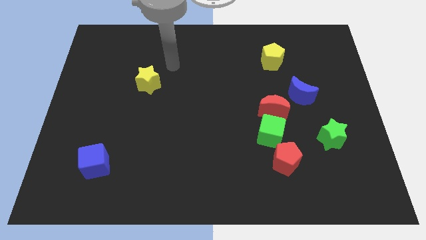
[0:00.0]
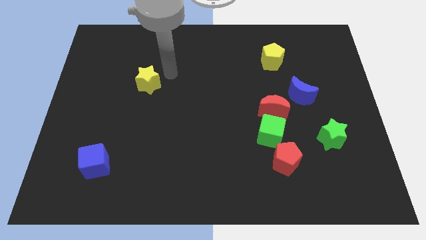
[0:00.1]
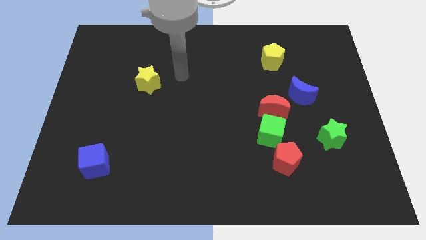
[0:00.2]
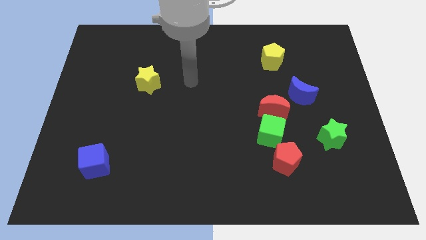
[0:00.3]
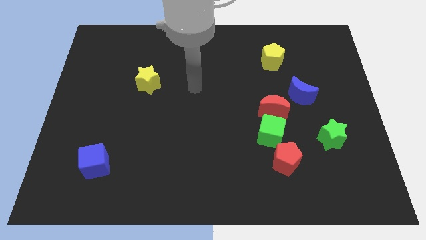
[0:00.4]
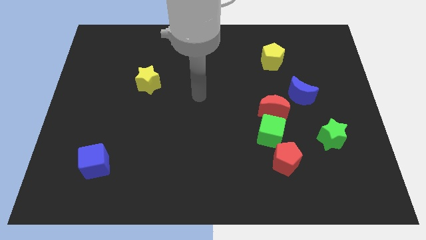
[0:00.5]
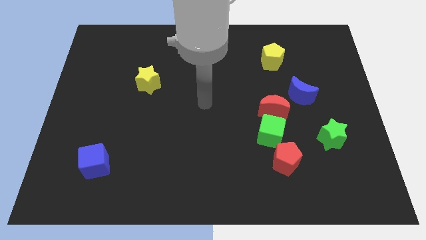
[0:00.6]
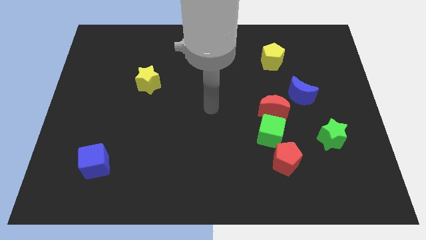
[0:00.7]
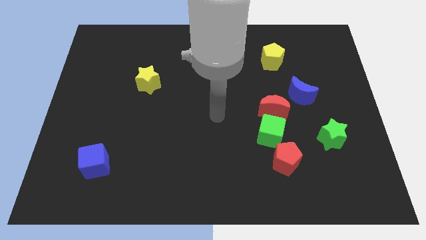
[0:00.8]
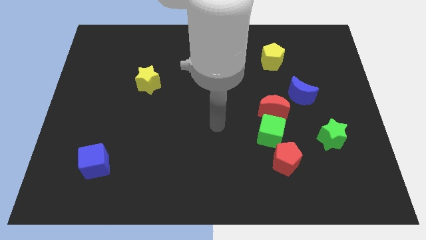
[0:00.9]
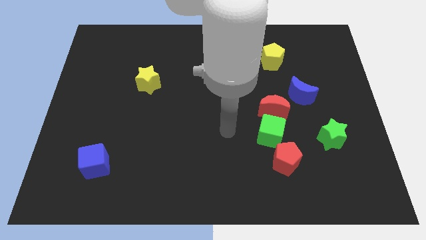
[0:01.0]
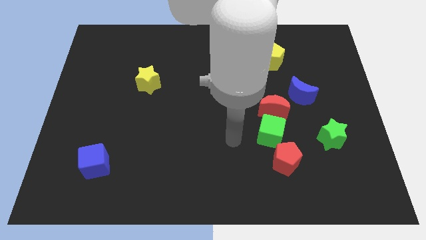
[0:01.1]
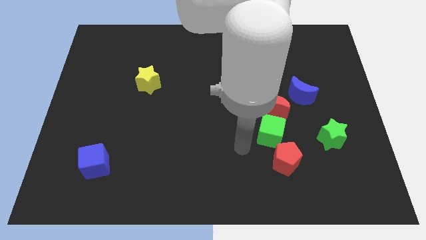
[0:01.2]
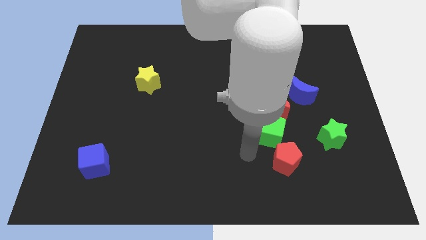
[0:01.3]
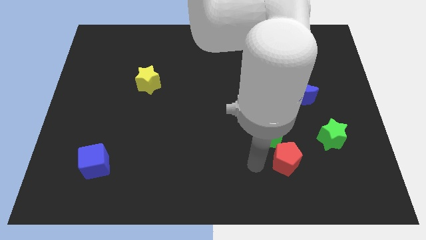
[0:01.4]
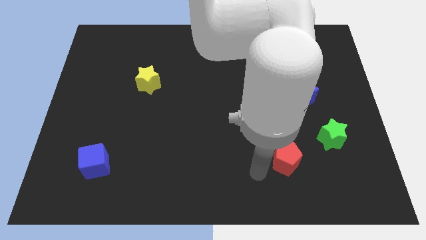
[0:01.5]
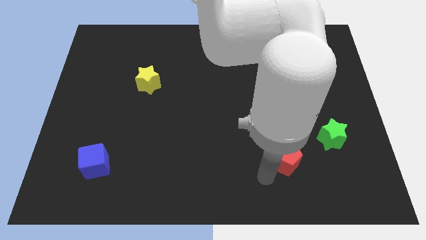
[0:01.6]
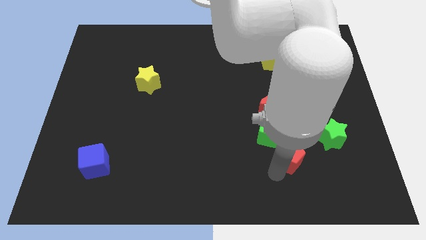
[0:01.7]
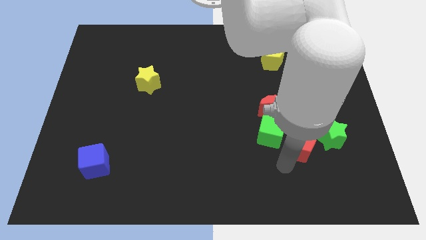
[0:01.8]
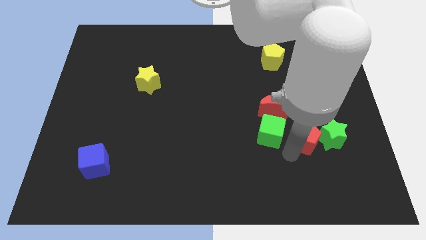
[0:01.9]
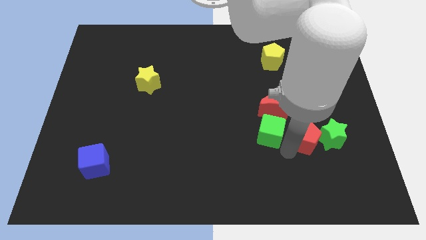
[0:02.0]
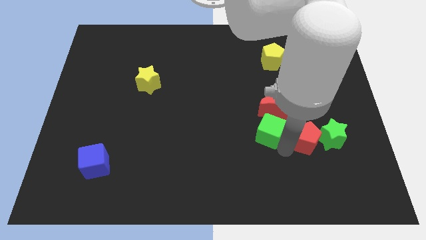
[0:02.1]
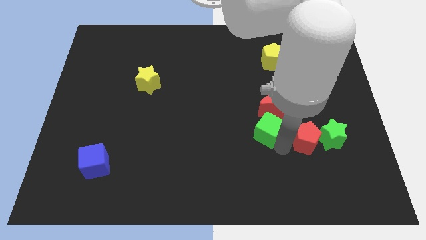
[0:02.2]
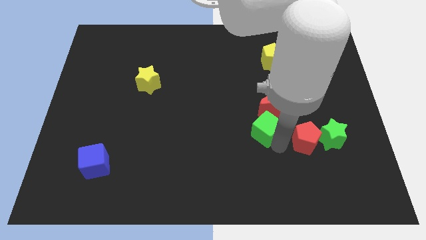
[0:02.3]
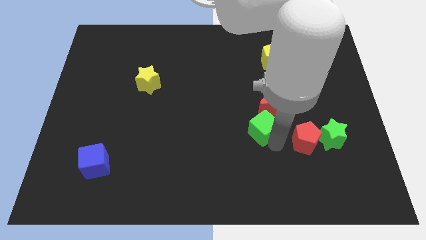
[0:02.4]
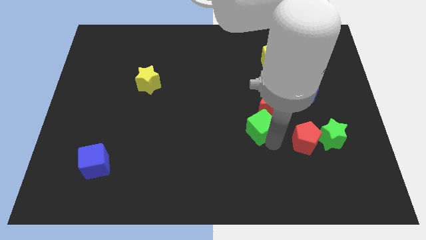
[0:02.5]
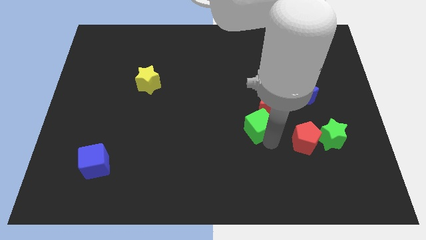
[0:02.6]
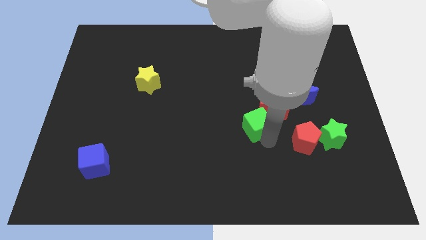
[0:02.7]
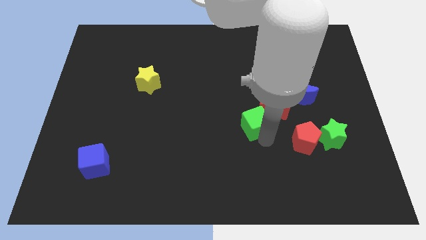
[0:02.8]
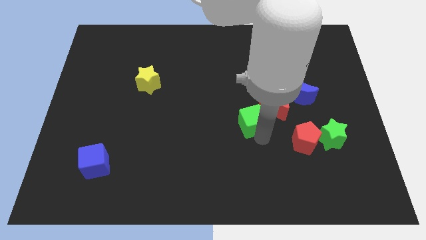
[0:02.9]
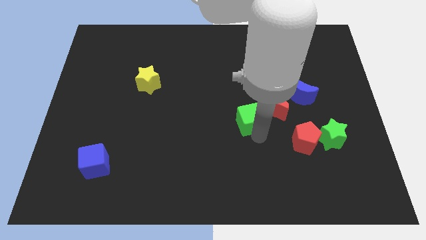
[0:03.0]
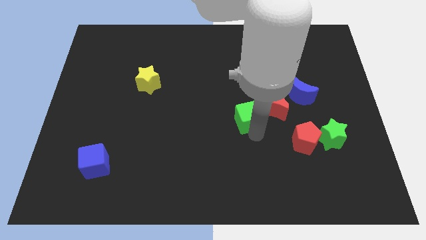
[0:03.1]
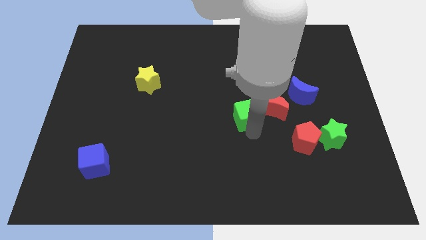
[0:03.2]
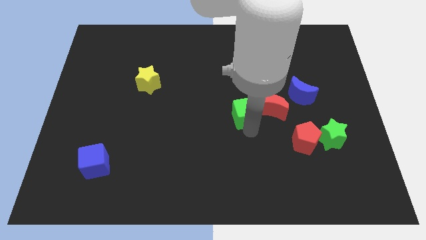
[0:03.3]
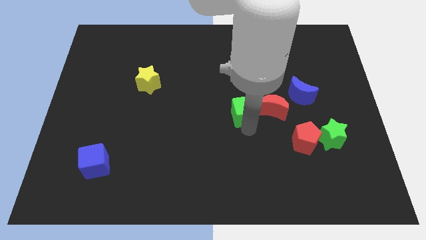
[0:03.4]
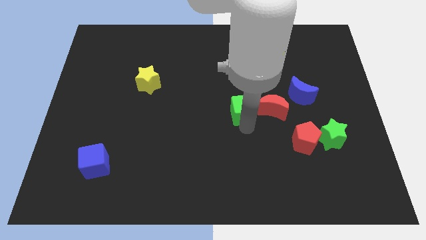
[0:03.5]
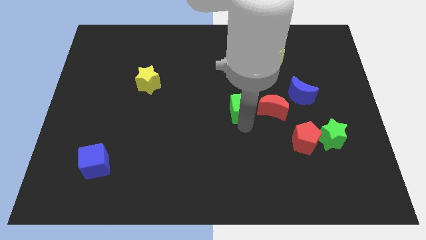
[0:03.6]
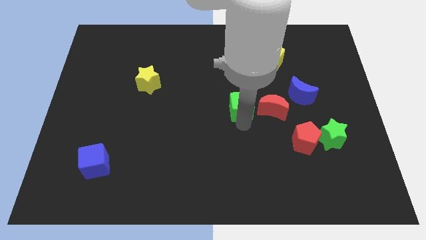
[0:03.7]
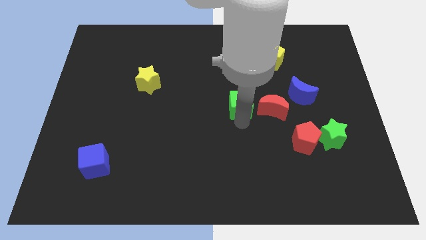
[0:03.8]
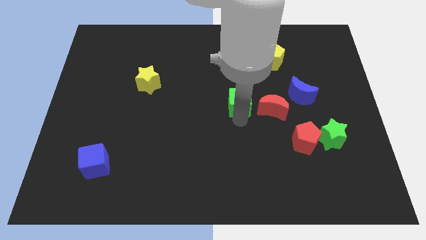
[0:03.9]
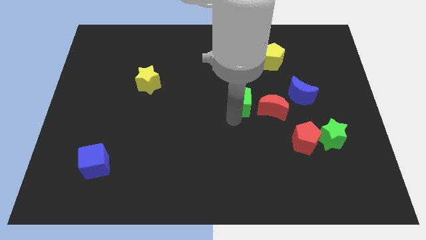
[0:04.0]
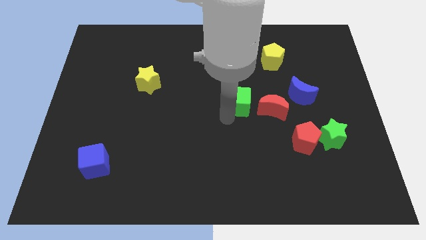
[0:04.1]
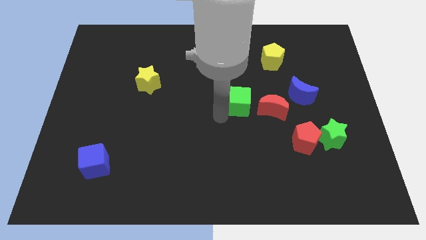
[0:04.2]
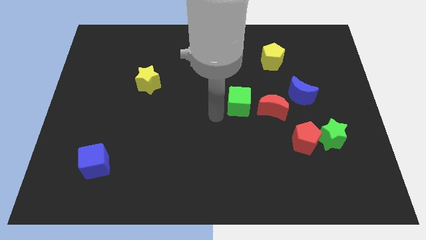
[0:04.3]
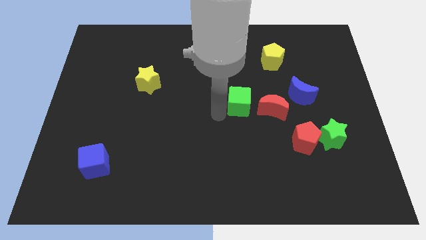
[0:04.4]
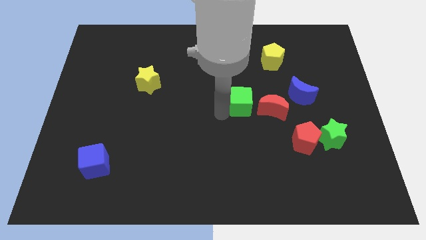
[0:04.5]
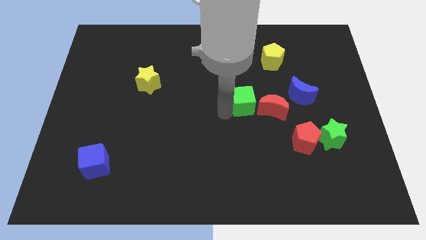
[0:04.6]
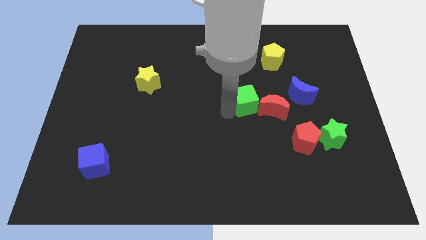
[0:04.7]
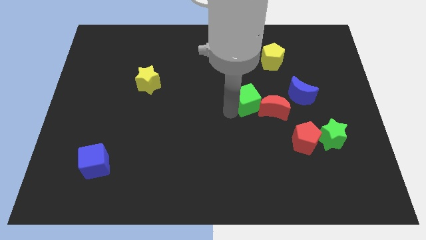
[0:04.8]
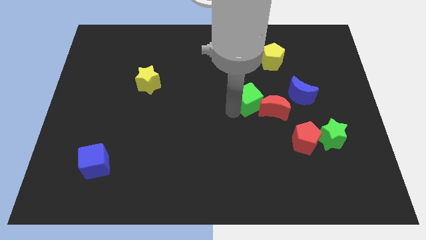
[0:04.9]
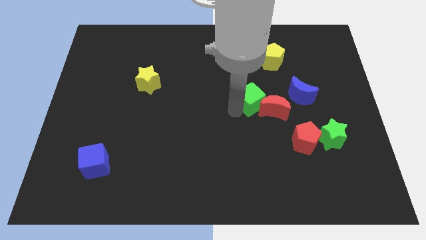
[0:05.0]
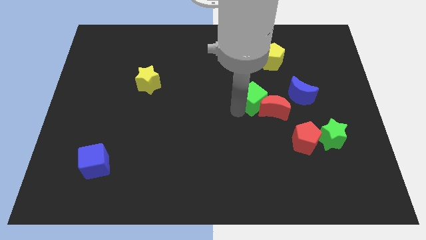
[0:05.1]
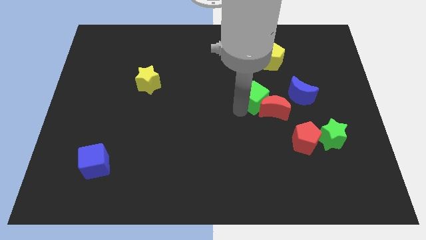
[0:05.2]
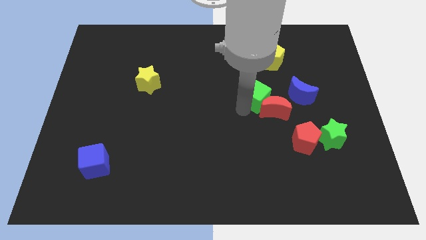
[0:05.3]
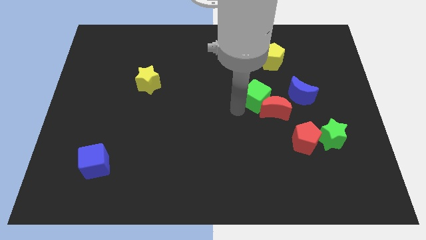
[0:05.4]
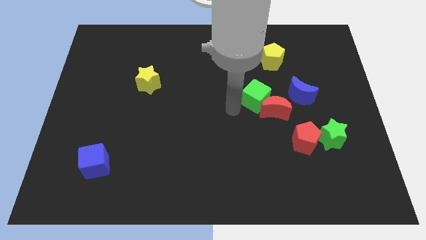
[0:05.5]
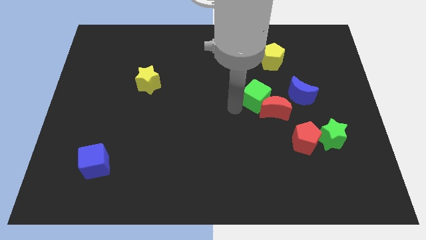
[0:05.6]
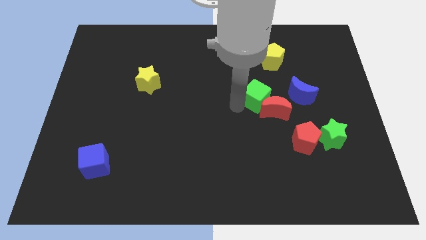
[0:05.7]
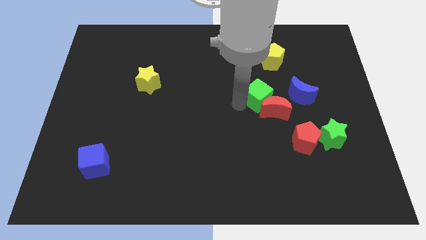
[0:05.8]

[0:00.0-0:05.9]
push the green cube below the yellow pentagon

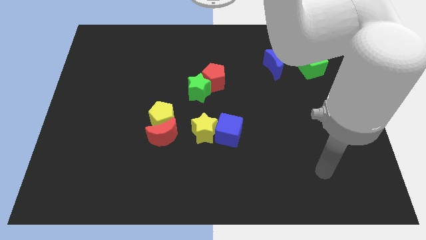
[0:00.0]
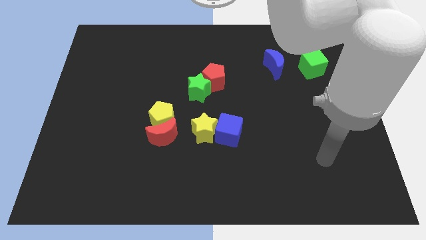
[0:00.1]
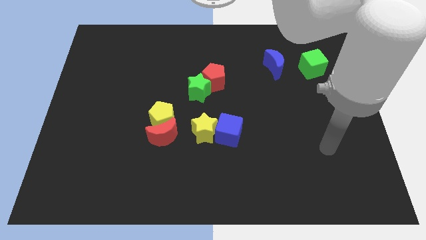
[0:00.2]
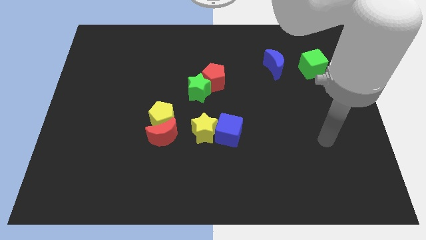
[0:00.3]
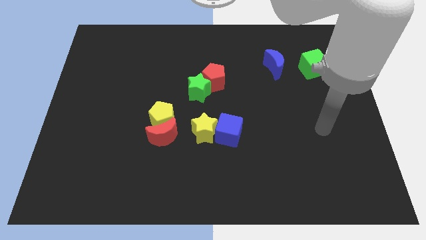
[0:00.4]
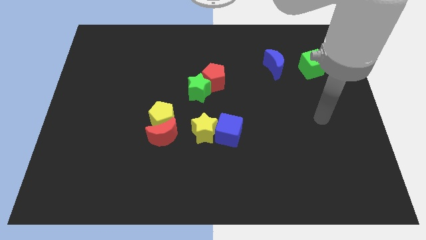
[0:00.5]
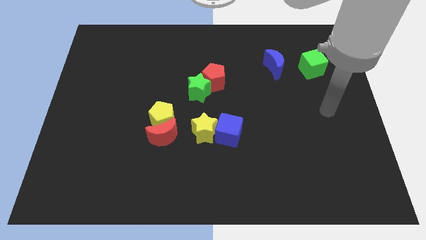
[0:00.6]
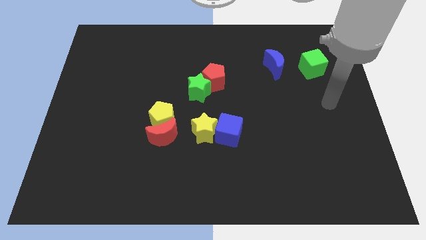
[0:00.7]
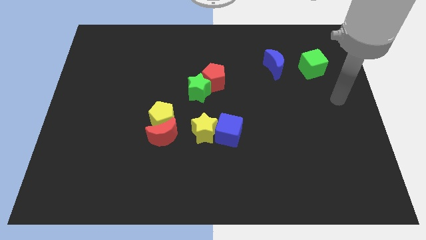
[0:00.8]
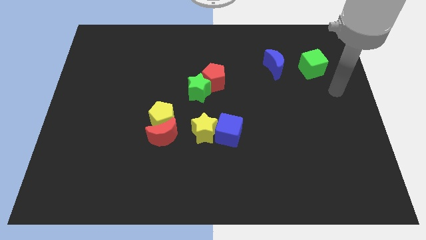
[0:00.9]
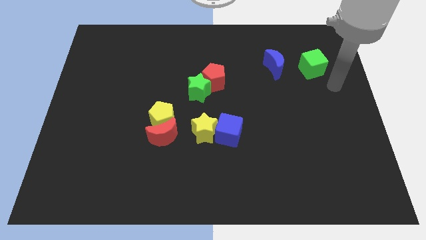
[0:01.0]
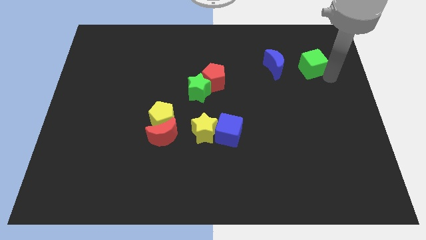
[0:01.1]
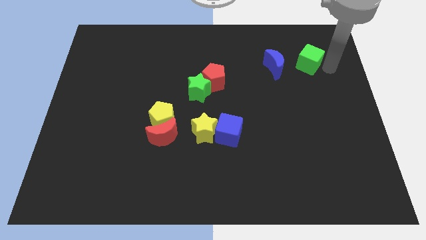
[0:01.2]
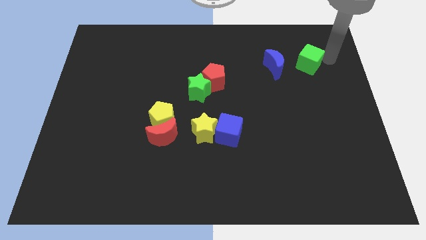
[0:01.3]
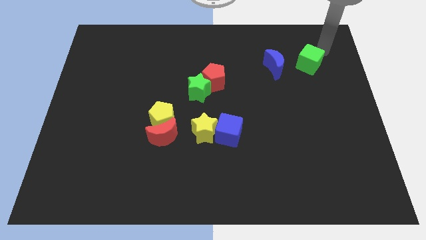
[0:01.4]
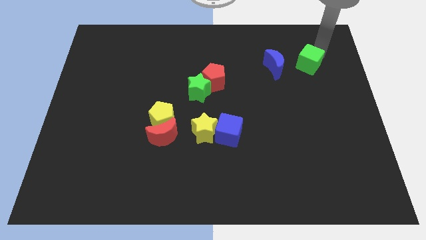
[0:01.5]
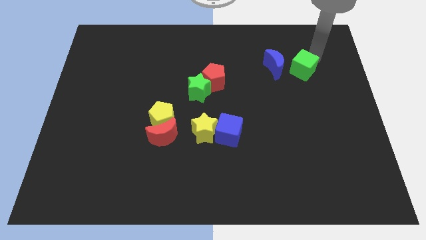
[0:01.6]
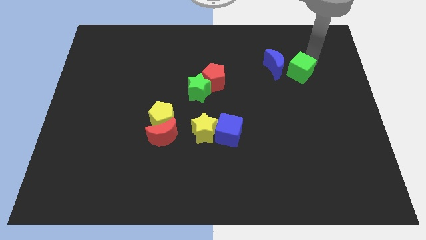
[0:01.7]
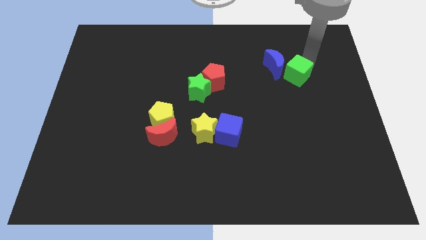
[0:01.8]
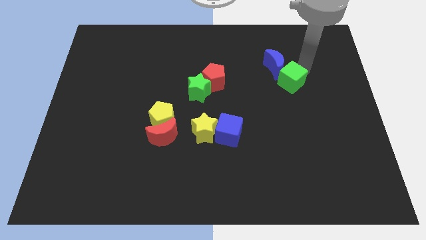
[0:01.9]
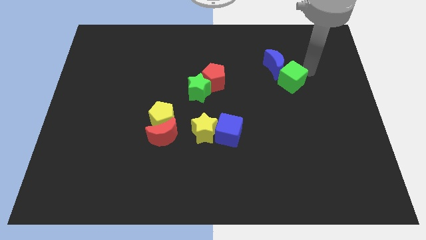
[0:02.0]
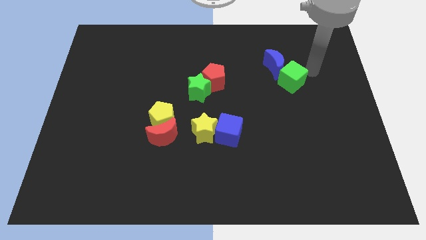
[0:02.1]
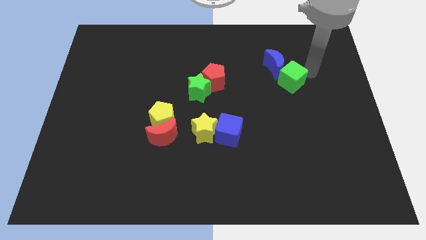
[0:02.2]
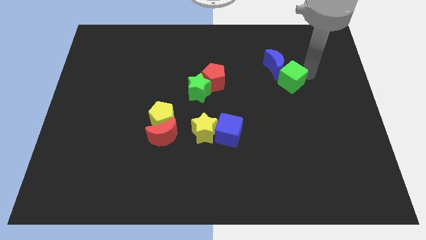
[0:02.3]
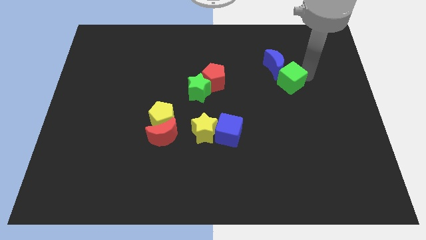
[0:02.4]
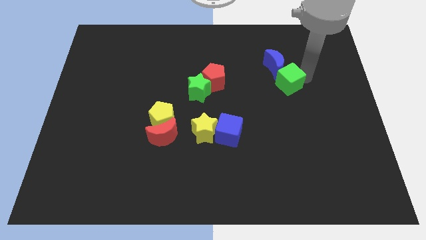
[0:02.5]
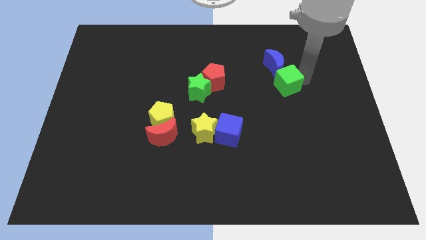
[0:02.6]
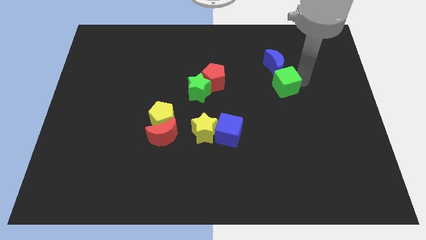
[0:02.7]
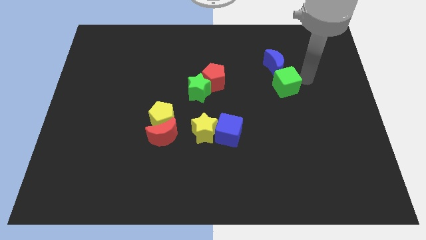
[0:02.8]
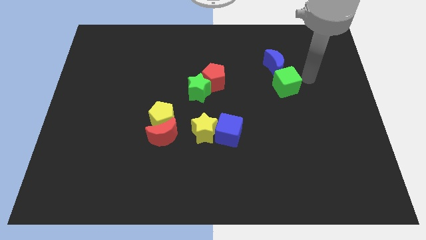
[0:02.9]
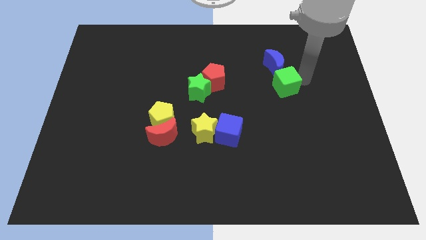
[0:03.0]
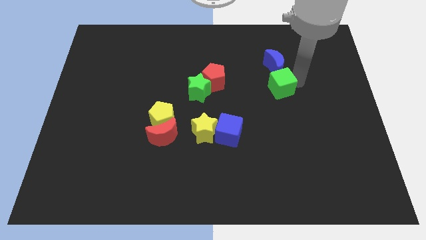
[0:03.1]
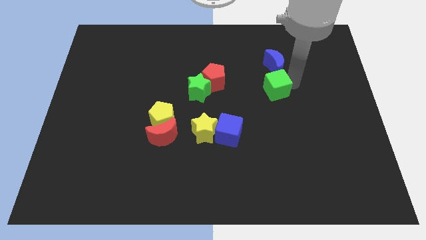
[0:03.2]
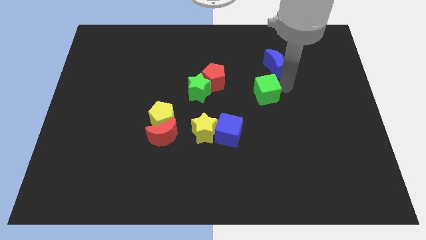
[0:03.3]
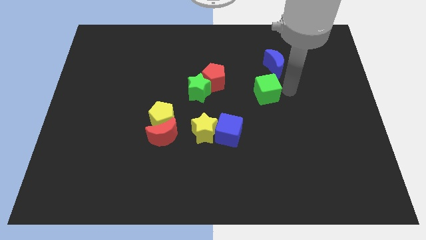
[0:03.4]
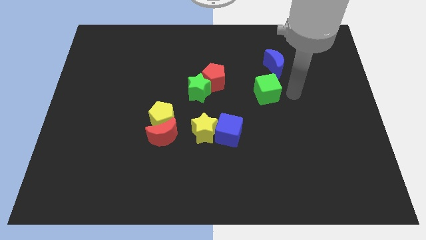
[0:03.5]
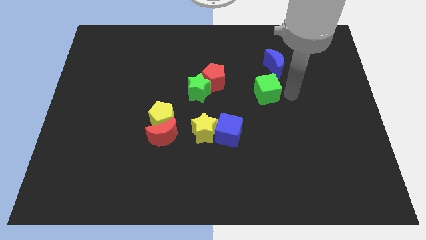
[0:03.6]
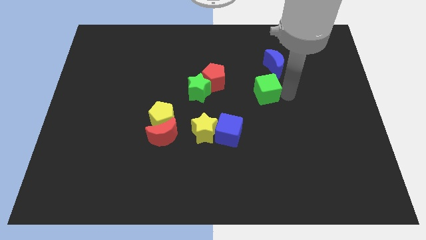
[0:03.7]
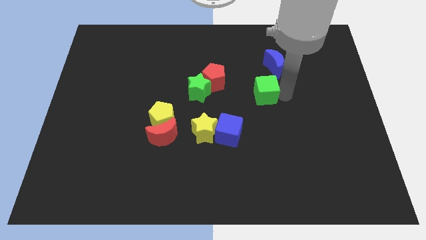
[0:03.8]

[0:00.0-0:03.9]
move the green cube just right of the green star
